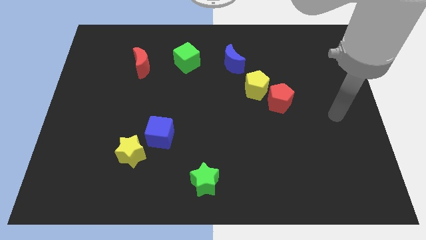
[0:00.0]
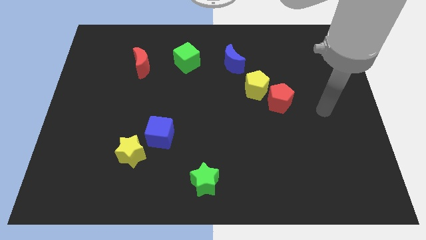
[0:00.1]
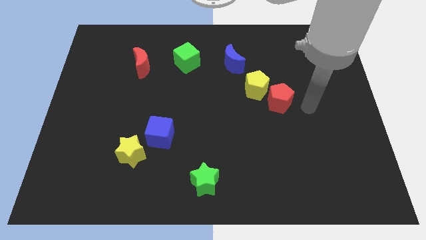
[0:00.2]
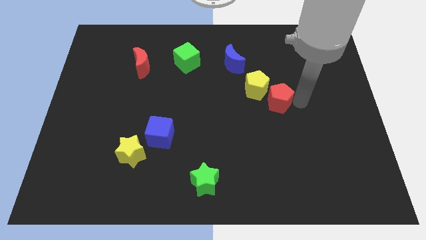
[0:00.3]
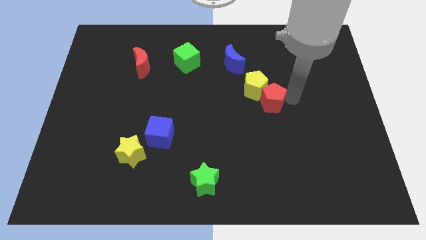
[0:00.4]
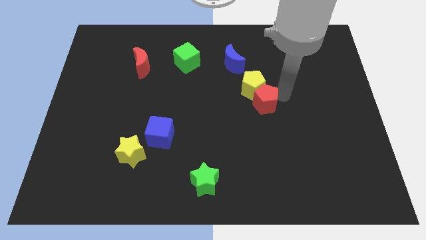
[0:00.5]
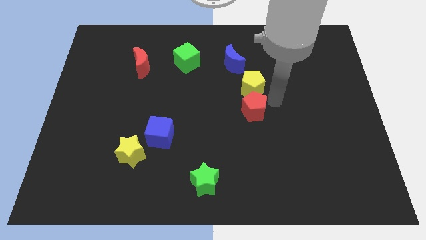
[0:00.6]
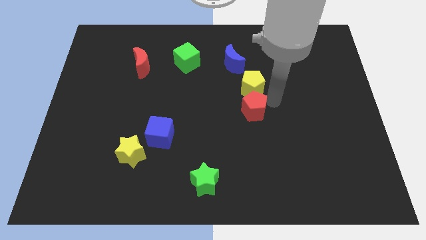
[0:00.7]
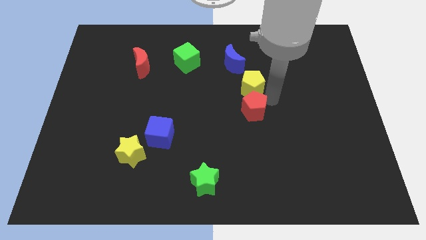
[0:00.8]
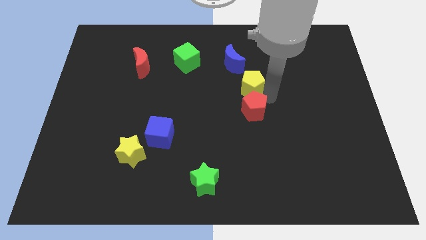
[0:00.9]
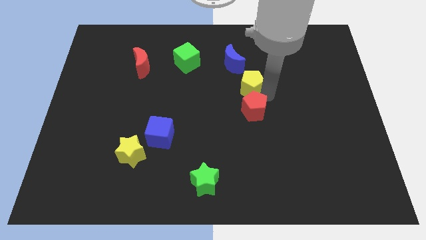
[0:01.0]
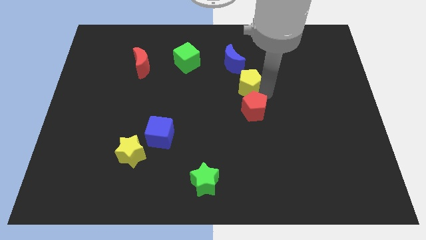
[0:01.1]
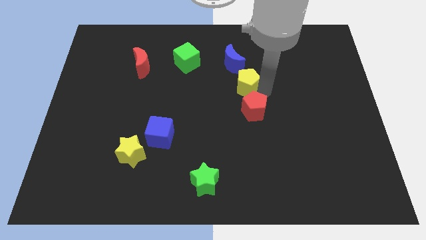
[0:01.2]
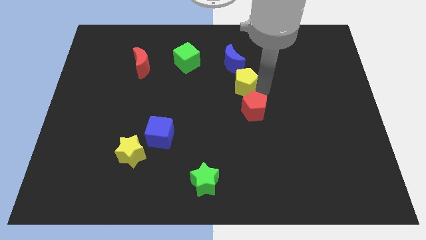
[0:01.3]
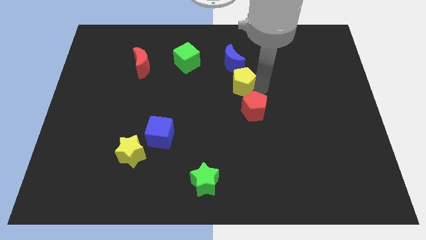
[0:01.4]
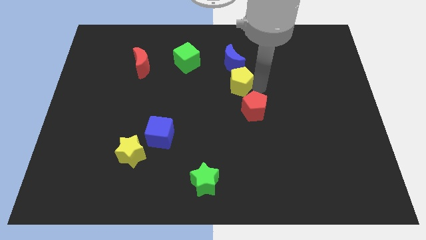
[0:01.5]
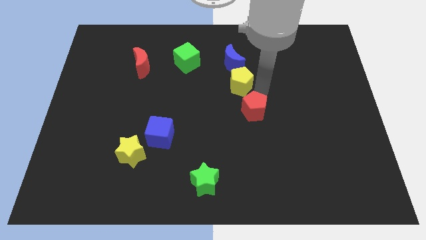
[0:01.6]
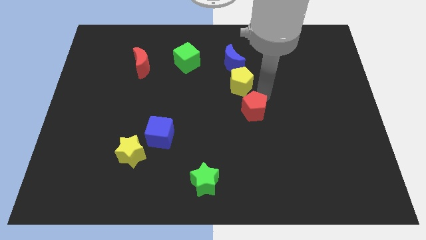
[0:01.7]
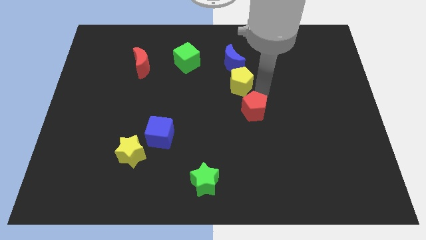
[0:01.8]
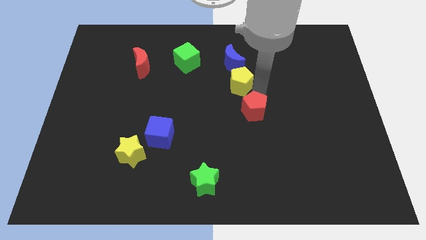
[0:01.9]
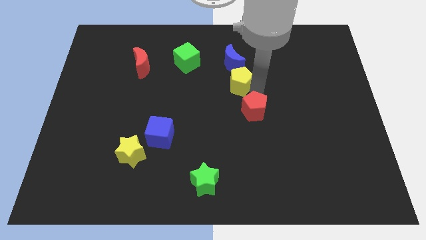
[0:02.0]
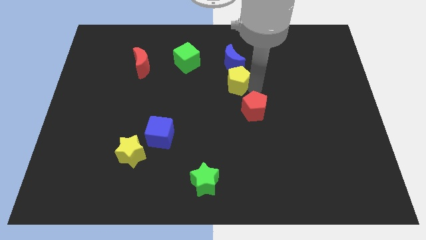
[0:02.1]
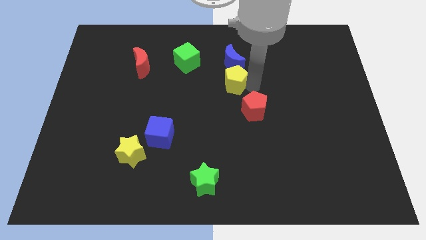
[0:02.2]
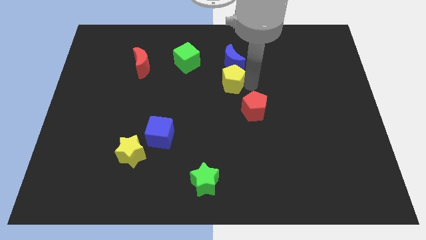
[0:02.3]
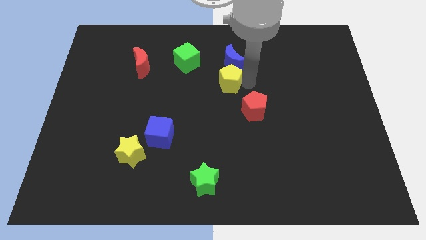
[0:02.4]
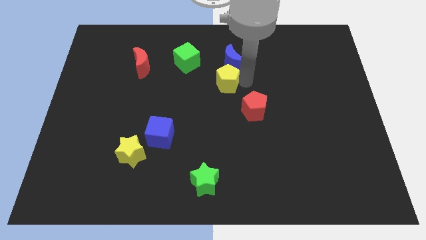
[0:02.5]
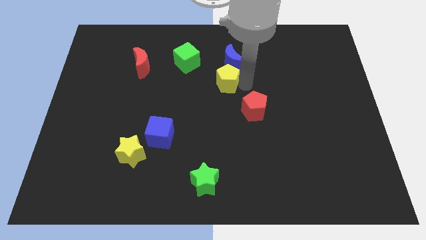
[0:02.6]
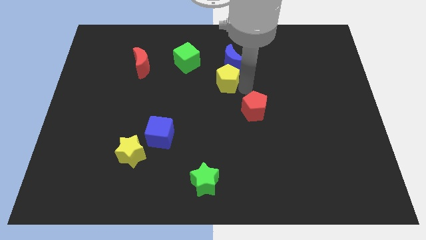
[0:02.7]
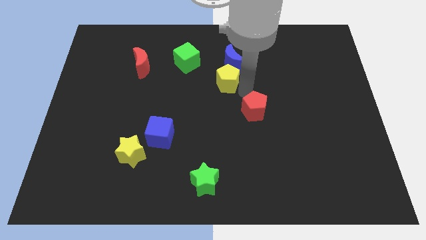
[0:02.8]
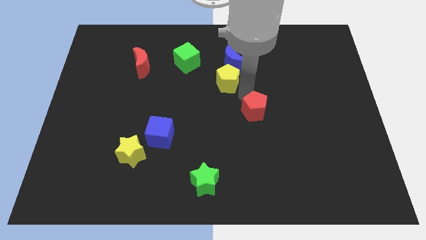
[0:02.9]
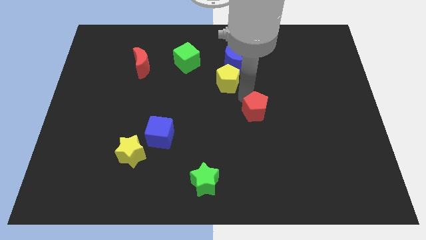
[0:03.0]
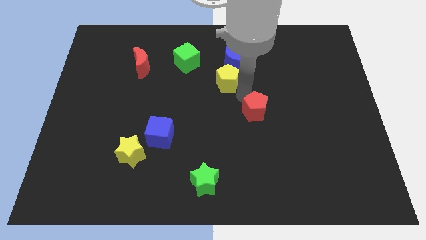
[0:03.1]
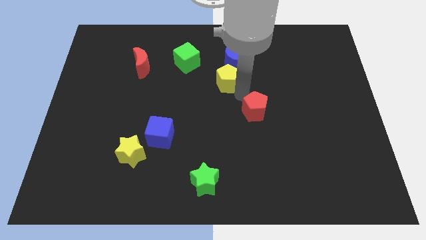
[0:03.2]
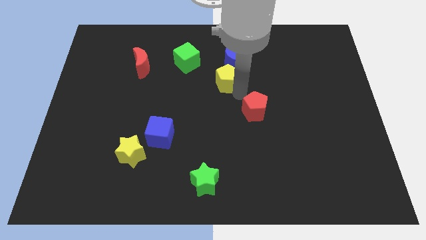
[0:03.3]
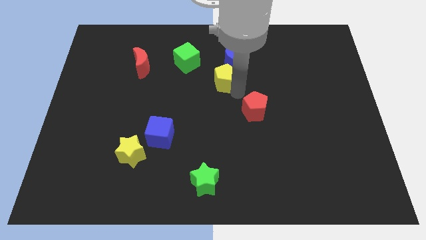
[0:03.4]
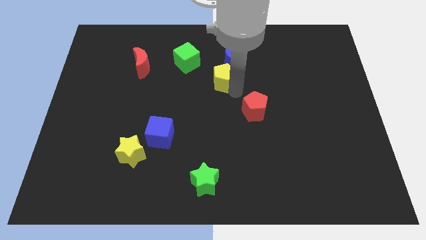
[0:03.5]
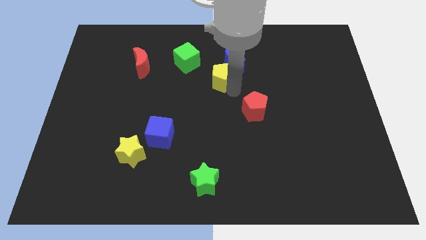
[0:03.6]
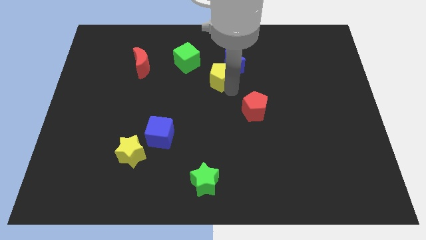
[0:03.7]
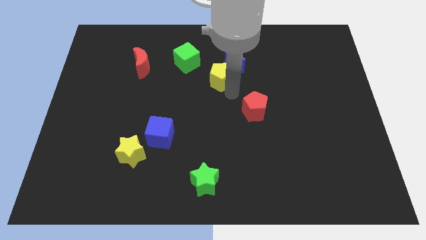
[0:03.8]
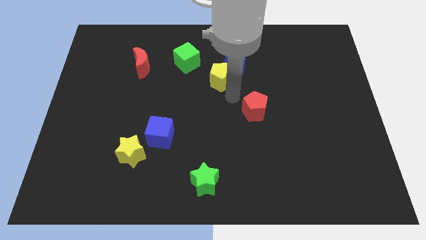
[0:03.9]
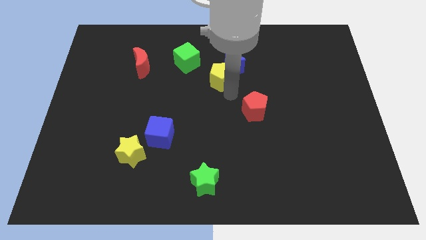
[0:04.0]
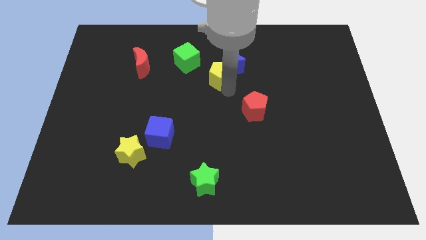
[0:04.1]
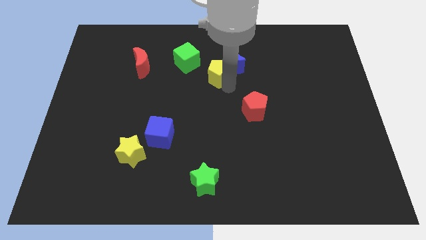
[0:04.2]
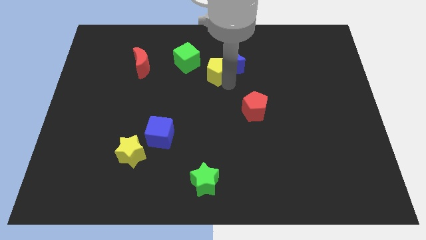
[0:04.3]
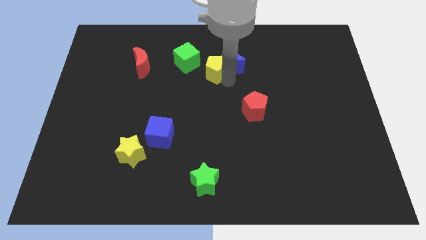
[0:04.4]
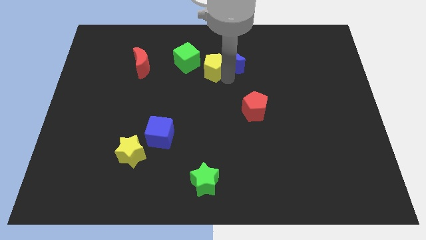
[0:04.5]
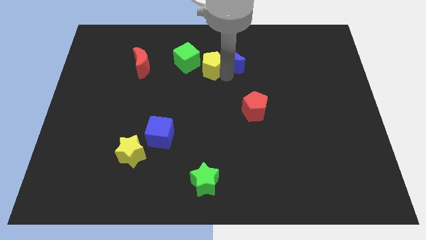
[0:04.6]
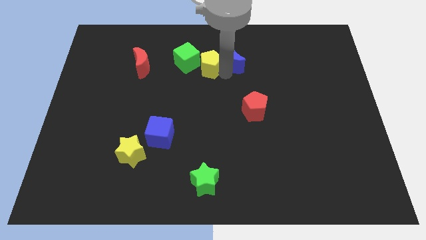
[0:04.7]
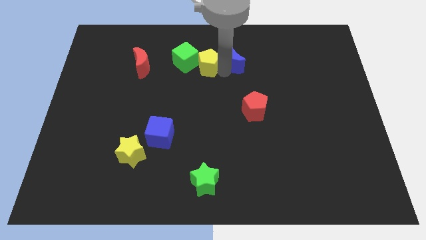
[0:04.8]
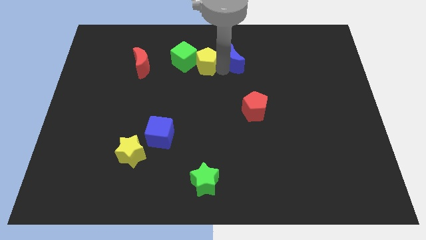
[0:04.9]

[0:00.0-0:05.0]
put the yellow pentagon towards the green cube

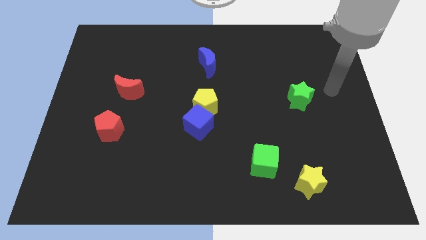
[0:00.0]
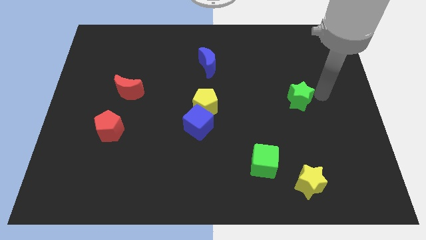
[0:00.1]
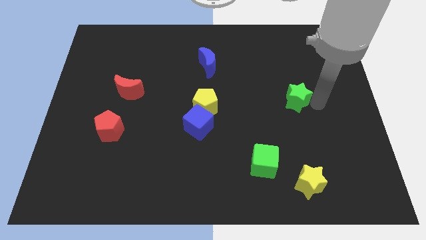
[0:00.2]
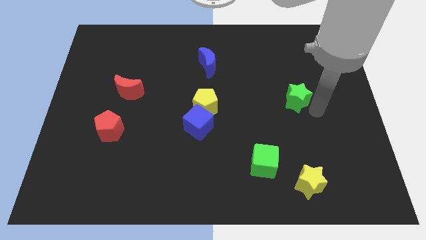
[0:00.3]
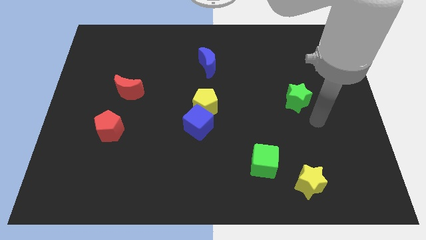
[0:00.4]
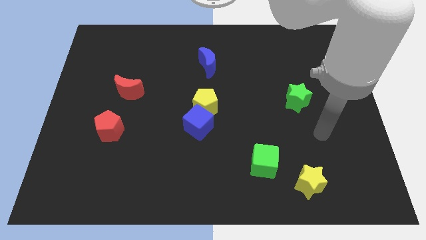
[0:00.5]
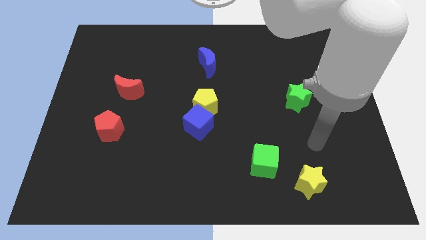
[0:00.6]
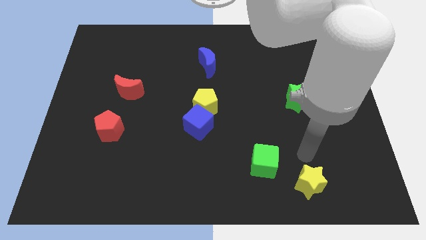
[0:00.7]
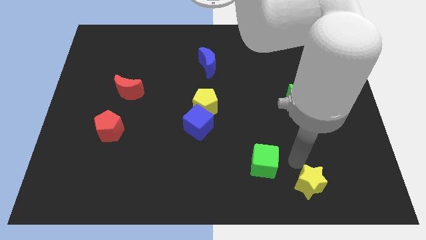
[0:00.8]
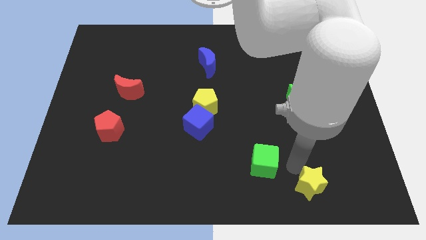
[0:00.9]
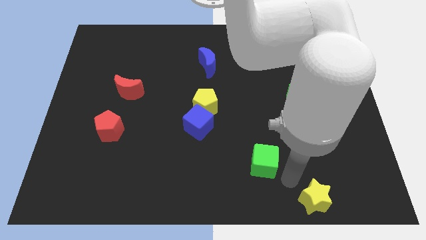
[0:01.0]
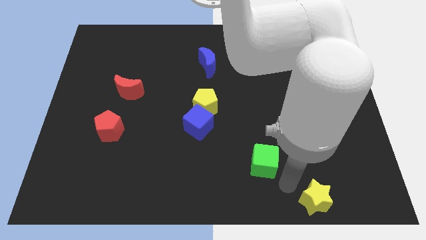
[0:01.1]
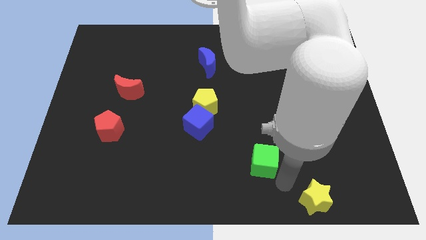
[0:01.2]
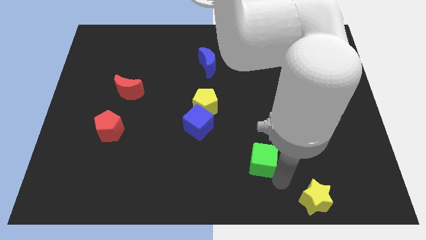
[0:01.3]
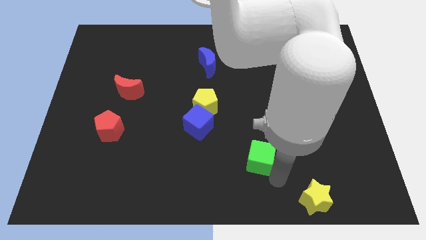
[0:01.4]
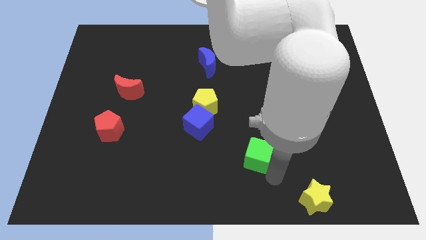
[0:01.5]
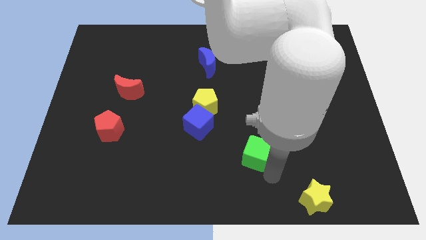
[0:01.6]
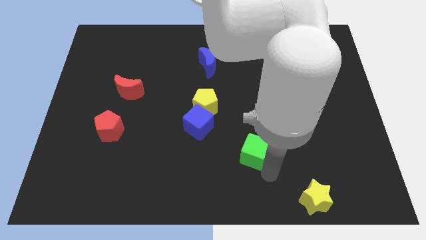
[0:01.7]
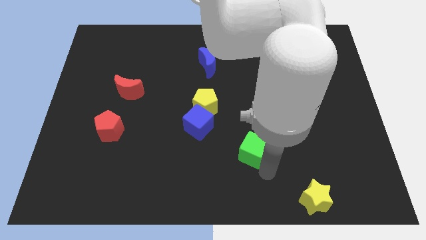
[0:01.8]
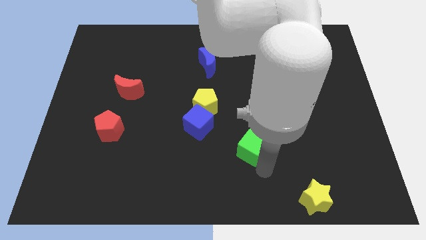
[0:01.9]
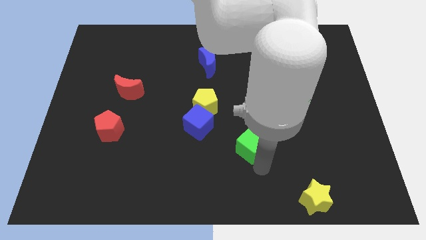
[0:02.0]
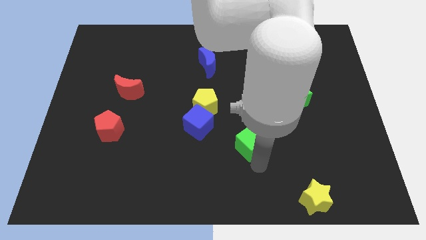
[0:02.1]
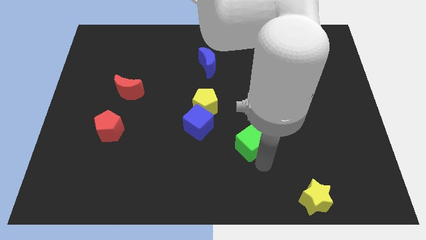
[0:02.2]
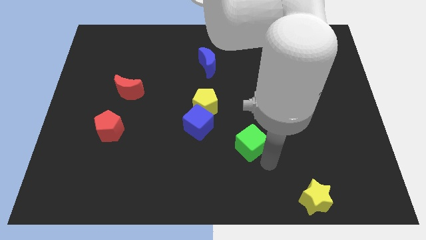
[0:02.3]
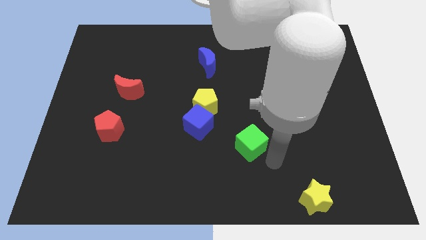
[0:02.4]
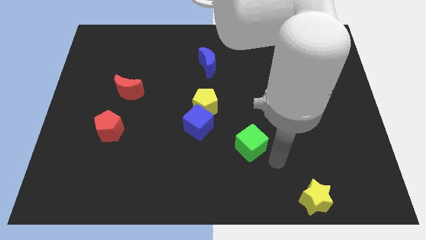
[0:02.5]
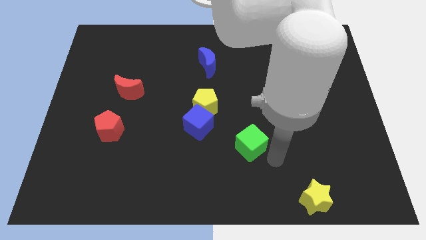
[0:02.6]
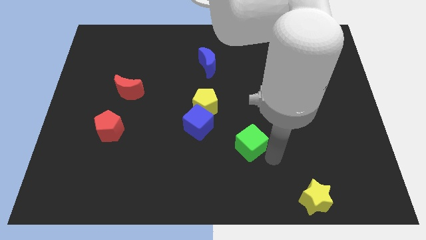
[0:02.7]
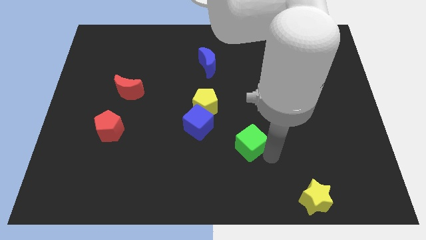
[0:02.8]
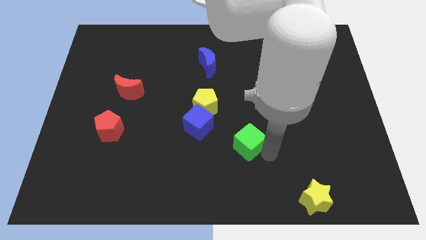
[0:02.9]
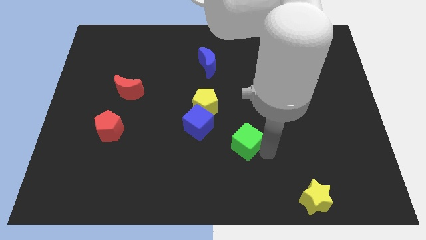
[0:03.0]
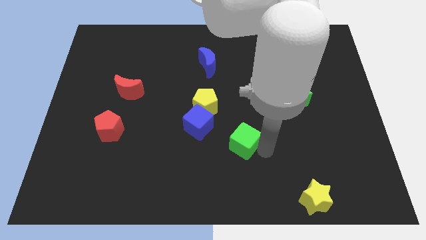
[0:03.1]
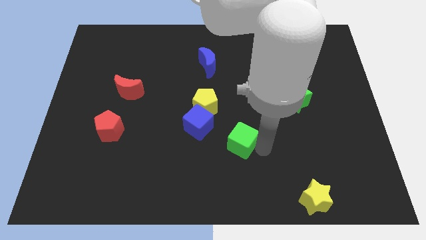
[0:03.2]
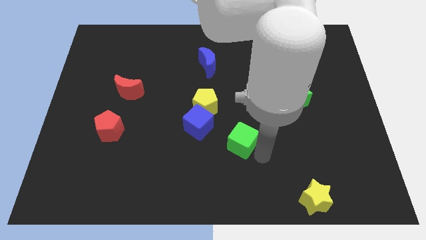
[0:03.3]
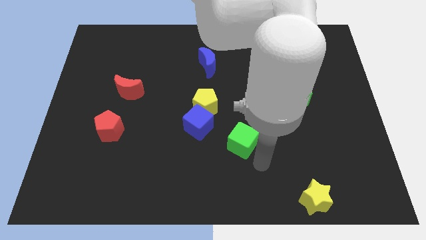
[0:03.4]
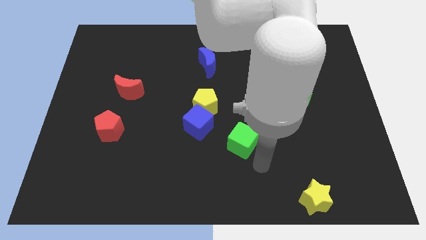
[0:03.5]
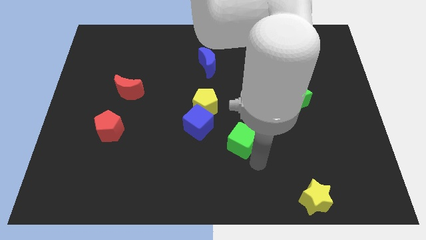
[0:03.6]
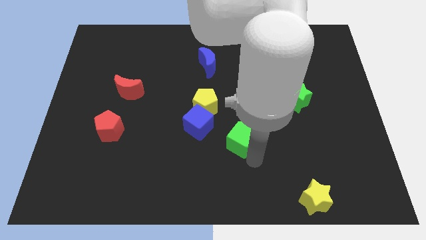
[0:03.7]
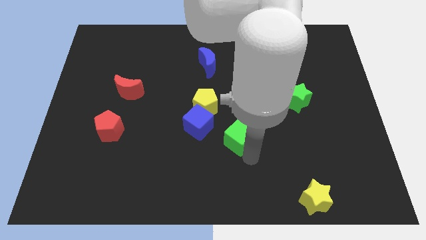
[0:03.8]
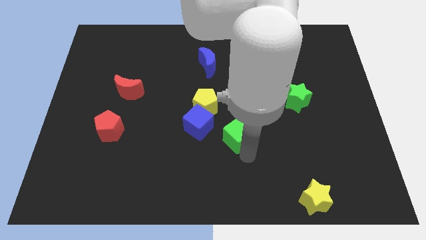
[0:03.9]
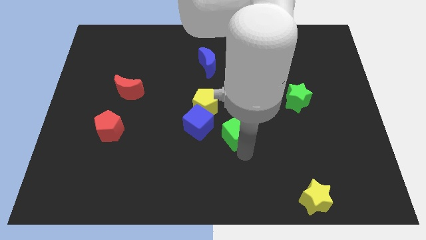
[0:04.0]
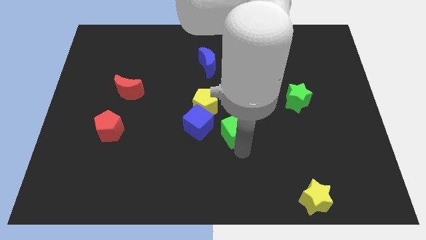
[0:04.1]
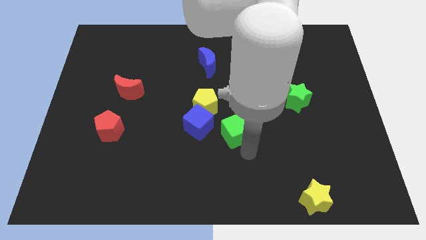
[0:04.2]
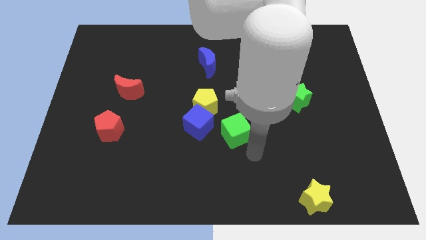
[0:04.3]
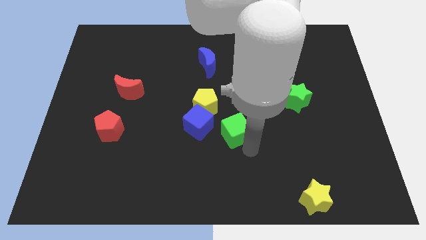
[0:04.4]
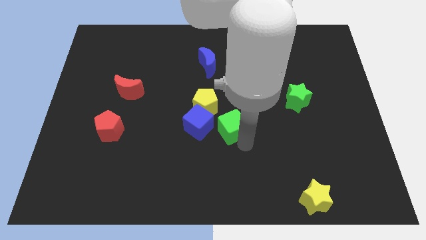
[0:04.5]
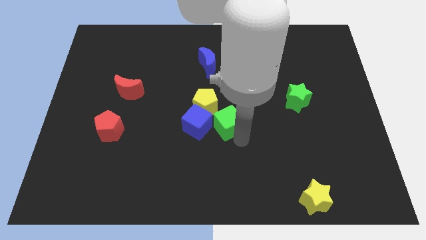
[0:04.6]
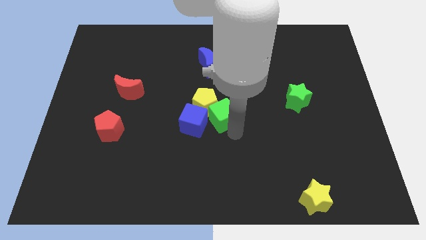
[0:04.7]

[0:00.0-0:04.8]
slide the green cube towards the yellow pentagon
